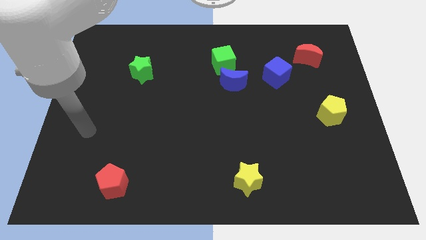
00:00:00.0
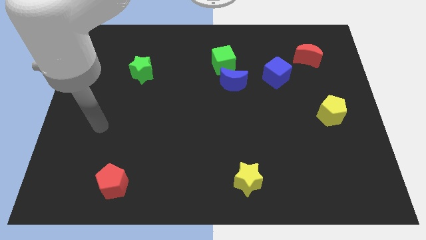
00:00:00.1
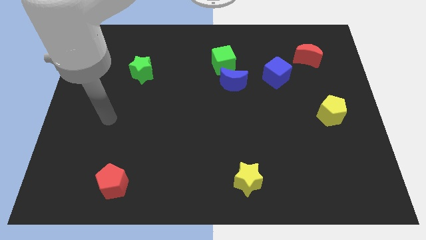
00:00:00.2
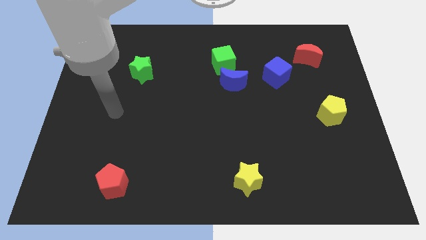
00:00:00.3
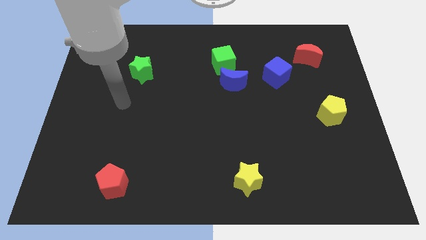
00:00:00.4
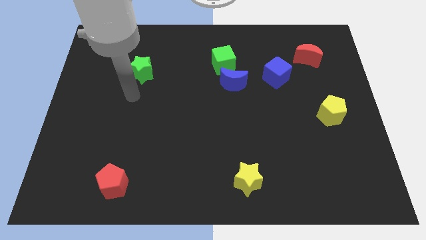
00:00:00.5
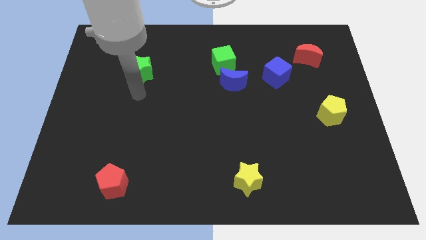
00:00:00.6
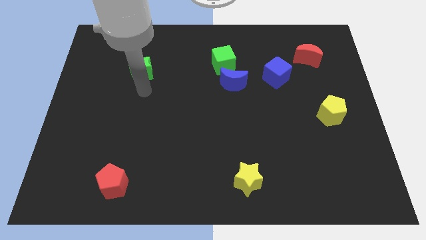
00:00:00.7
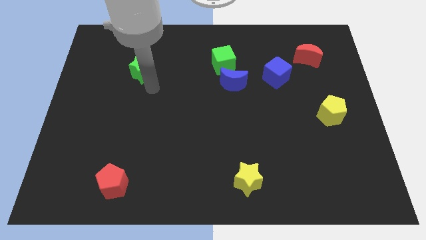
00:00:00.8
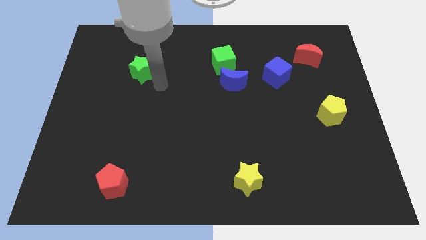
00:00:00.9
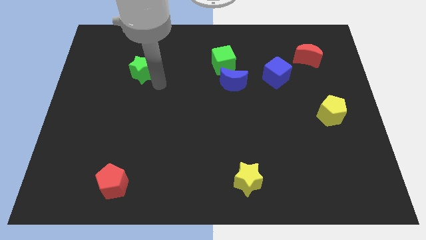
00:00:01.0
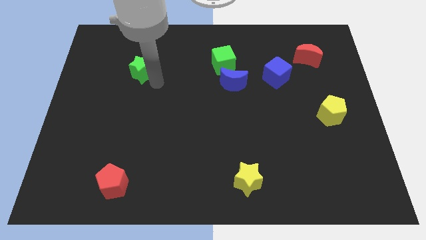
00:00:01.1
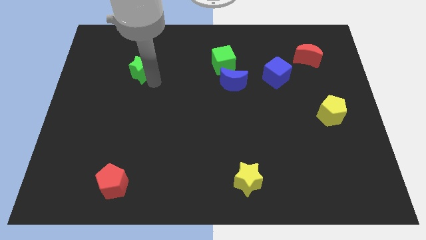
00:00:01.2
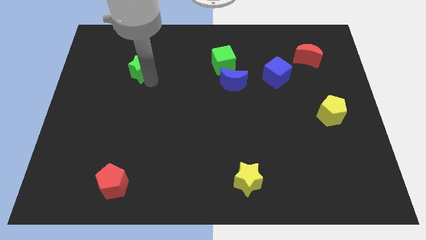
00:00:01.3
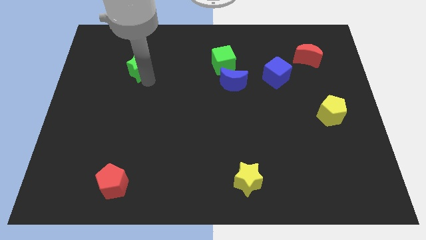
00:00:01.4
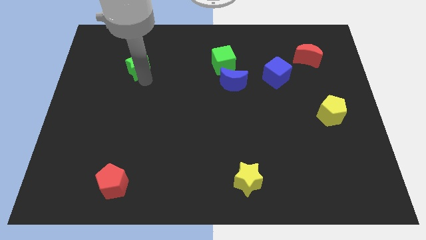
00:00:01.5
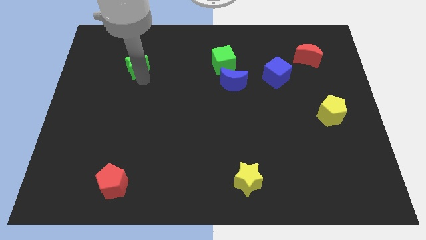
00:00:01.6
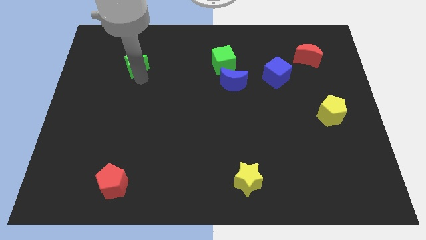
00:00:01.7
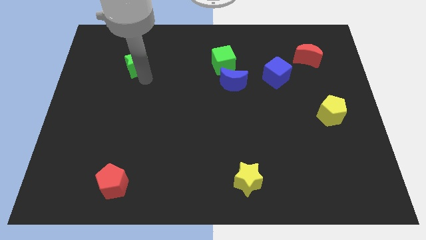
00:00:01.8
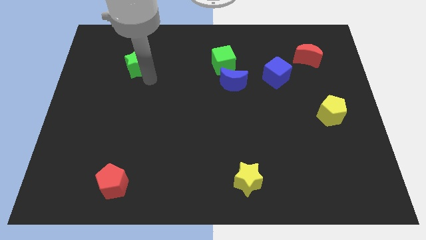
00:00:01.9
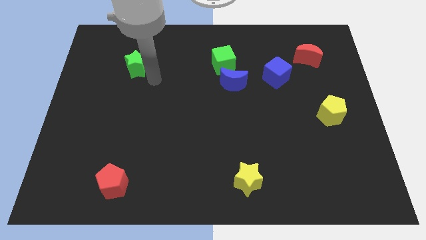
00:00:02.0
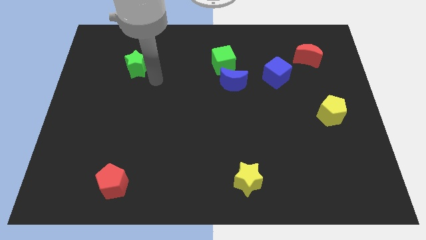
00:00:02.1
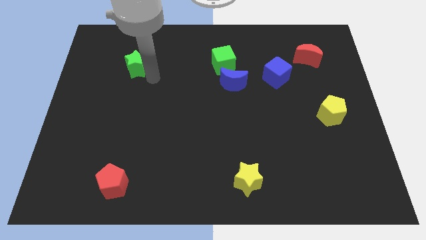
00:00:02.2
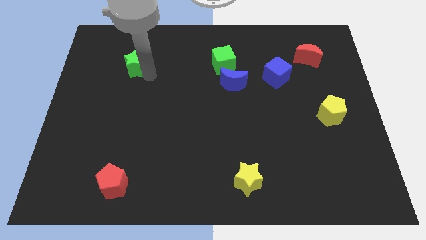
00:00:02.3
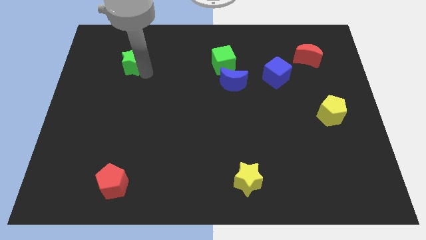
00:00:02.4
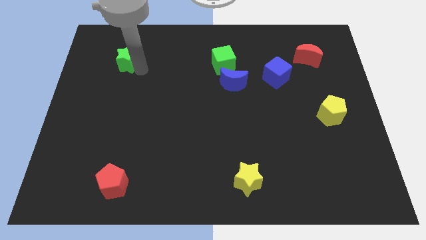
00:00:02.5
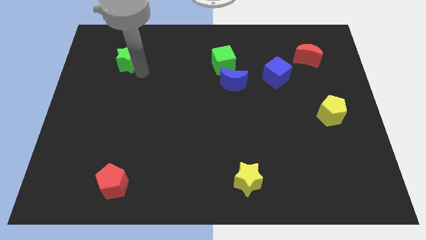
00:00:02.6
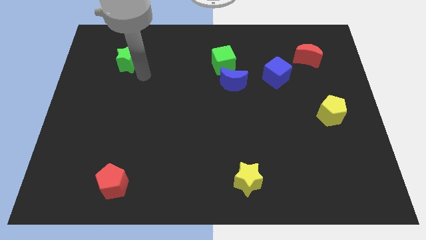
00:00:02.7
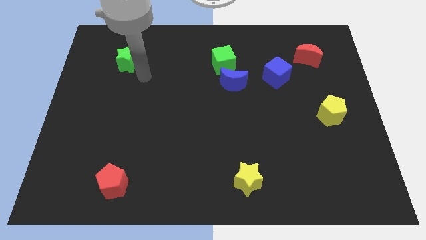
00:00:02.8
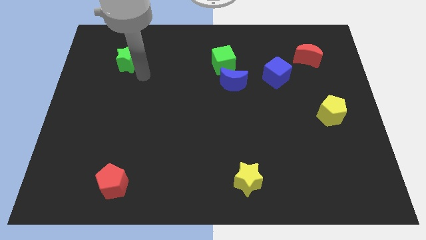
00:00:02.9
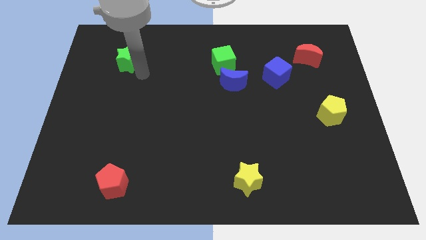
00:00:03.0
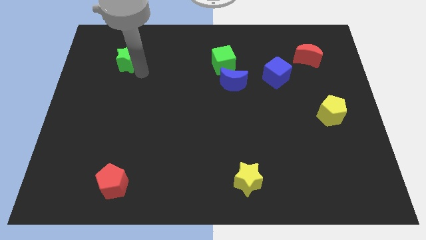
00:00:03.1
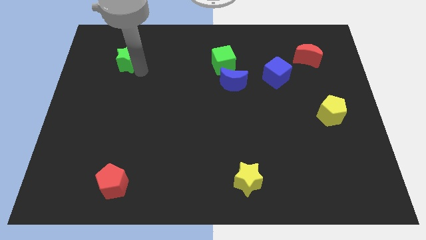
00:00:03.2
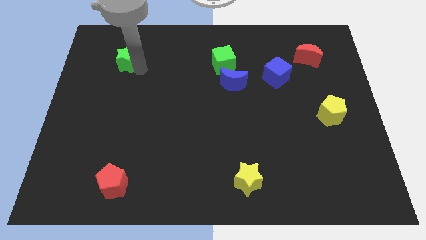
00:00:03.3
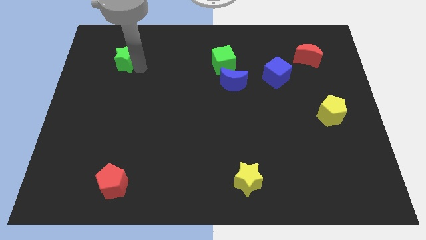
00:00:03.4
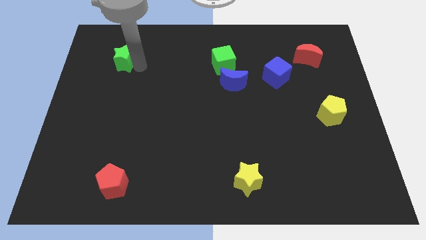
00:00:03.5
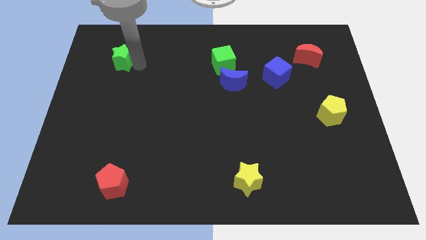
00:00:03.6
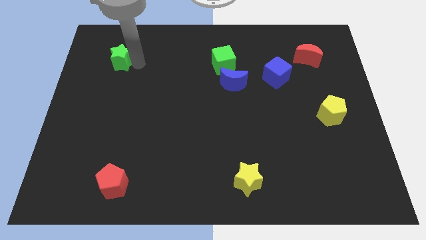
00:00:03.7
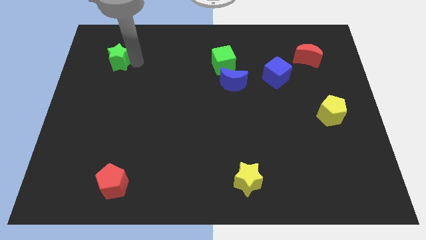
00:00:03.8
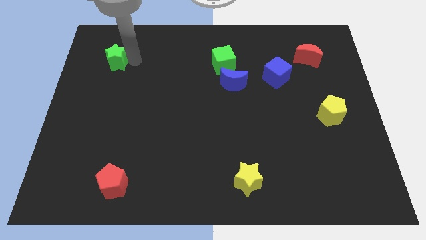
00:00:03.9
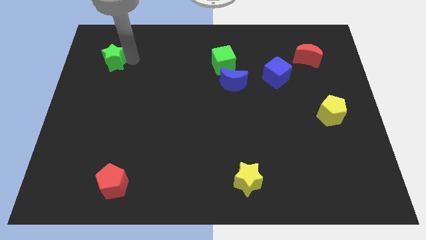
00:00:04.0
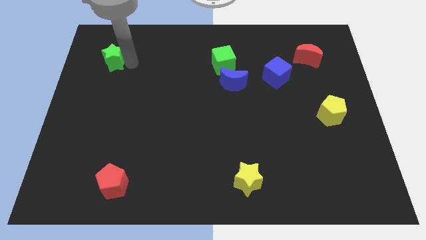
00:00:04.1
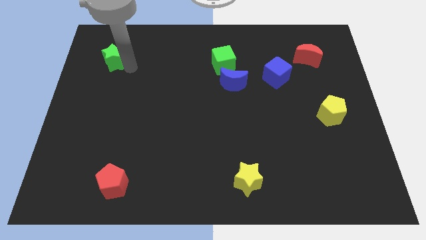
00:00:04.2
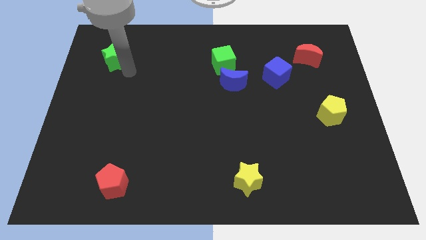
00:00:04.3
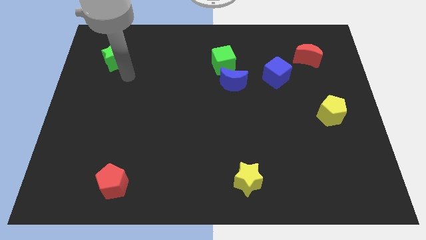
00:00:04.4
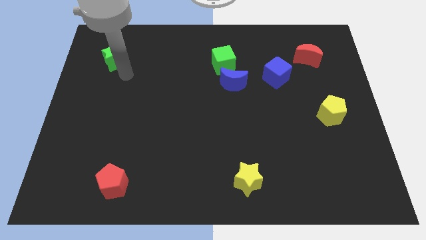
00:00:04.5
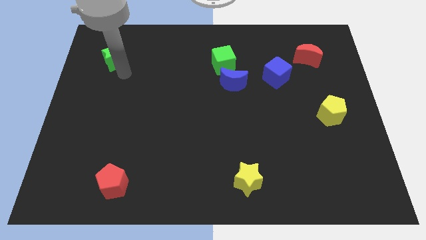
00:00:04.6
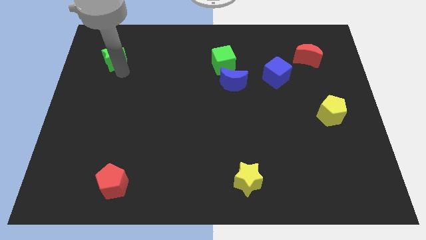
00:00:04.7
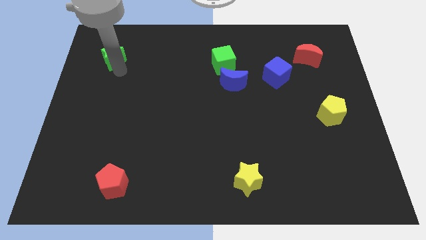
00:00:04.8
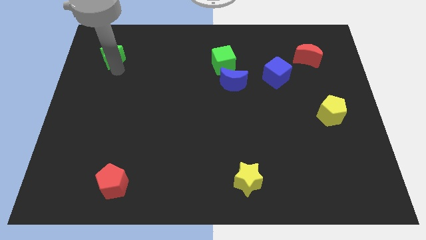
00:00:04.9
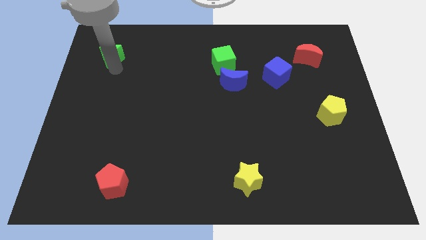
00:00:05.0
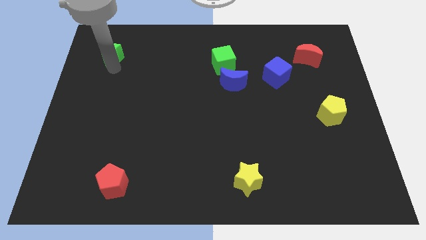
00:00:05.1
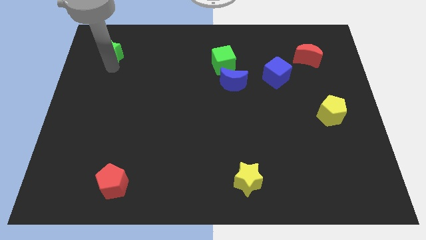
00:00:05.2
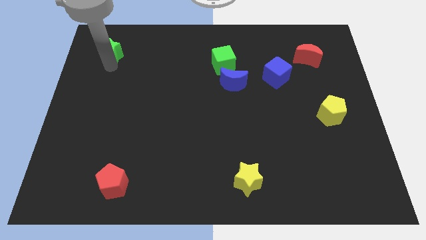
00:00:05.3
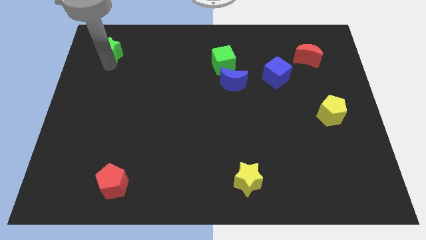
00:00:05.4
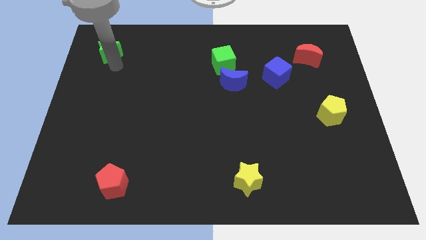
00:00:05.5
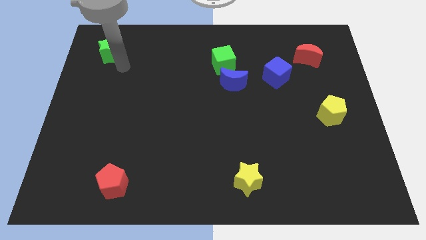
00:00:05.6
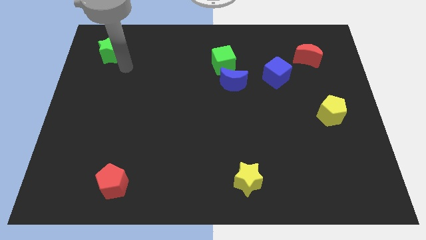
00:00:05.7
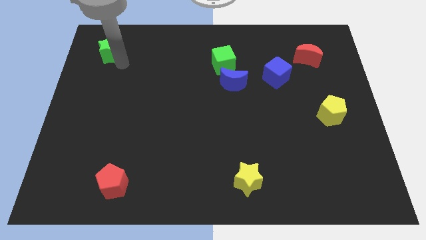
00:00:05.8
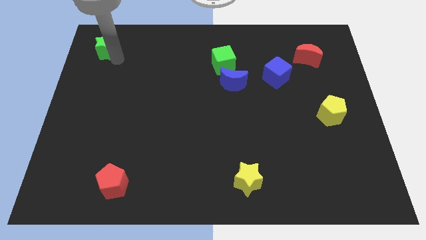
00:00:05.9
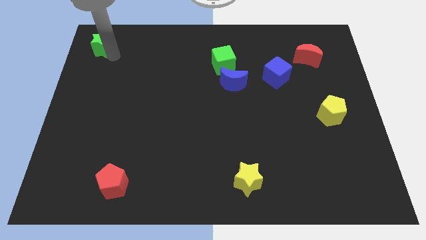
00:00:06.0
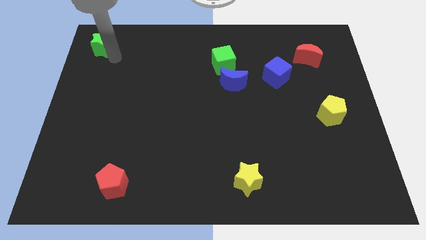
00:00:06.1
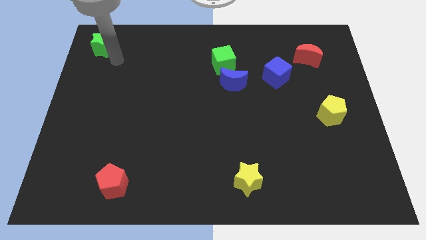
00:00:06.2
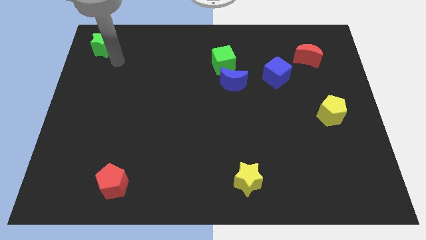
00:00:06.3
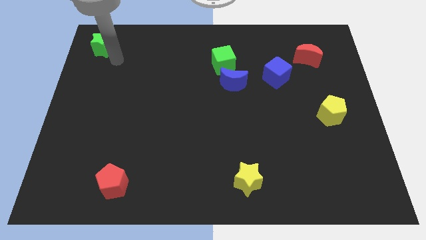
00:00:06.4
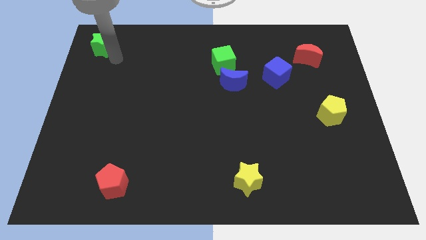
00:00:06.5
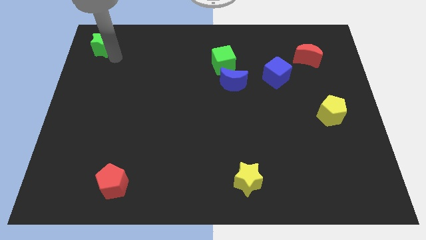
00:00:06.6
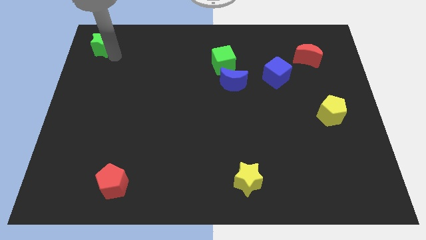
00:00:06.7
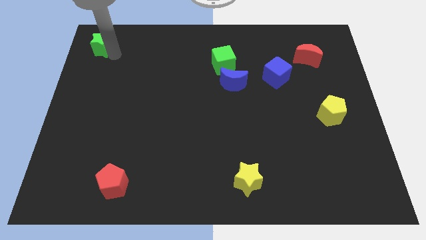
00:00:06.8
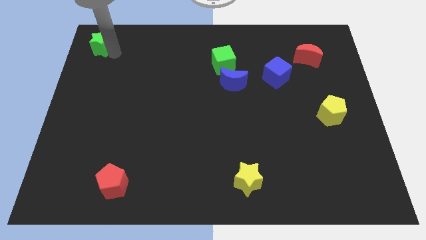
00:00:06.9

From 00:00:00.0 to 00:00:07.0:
put the green star to the upper left corner

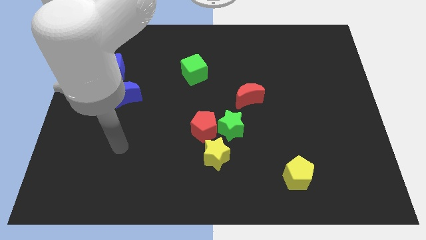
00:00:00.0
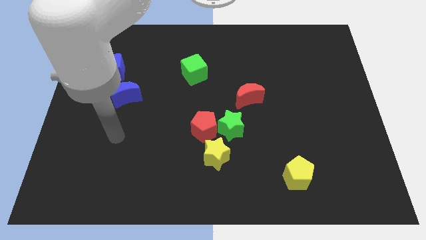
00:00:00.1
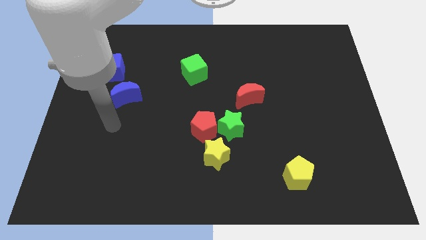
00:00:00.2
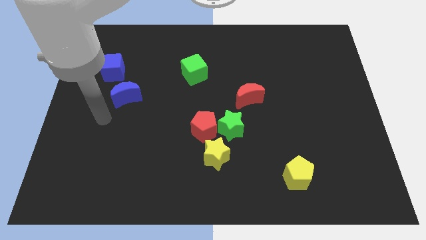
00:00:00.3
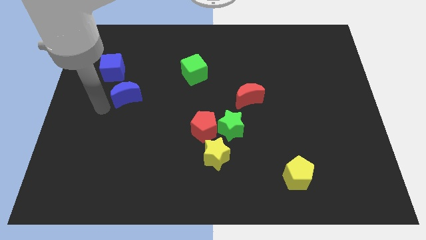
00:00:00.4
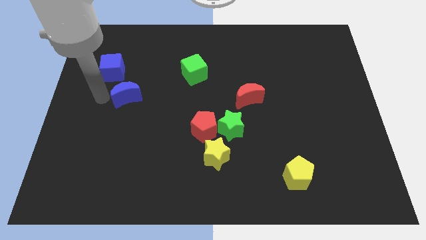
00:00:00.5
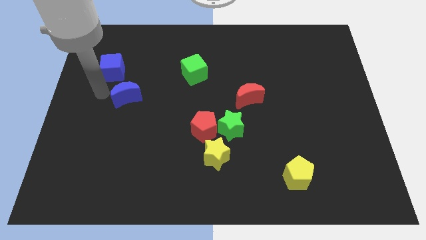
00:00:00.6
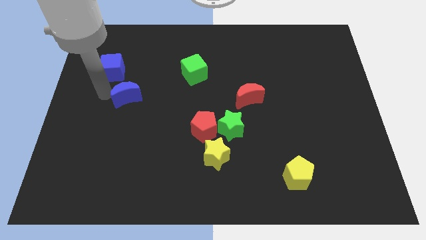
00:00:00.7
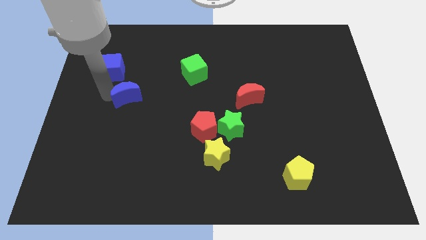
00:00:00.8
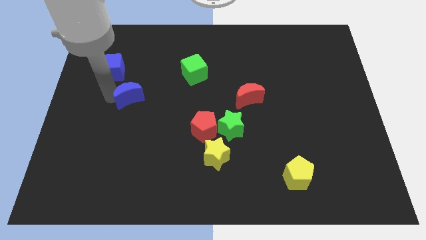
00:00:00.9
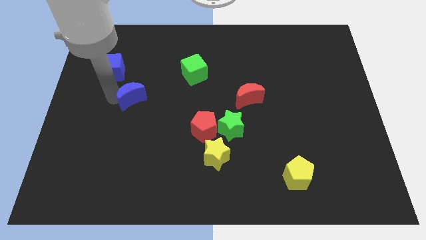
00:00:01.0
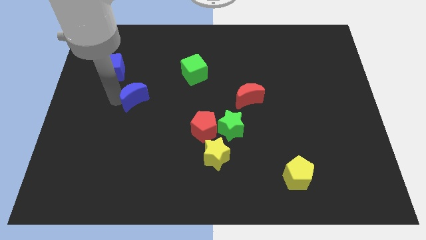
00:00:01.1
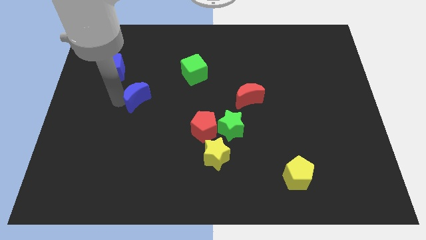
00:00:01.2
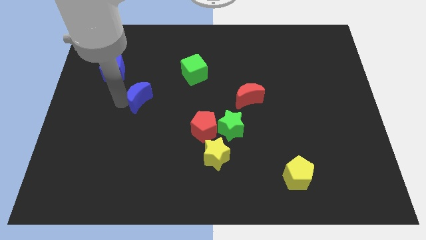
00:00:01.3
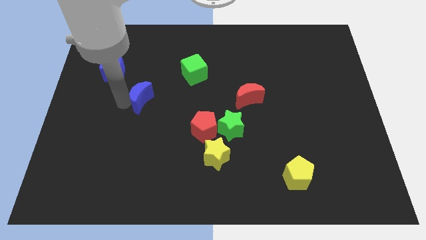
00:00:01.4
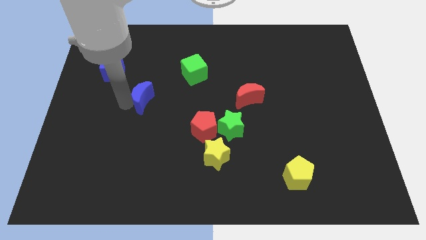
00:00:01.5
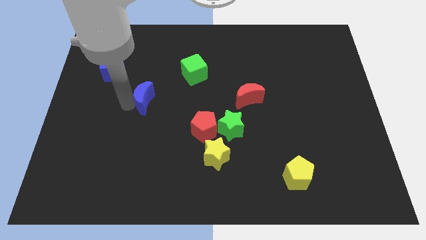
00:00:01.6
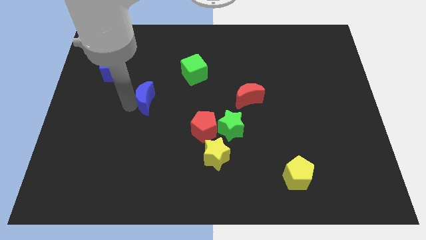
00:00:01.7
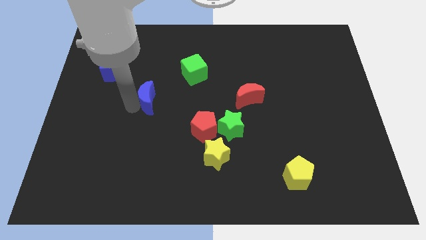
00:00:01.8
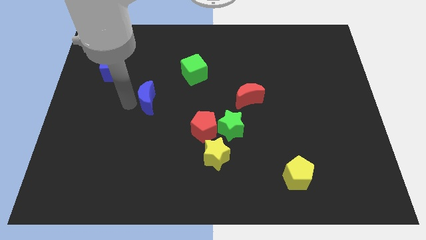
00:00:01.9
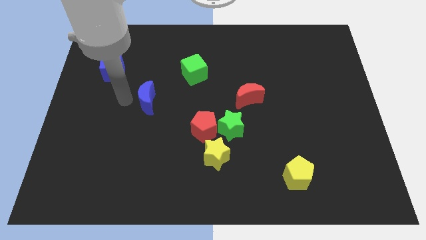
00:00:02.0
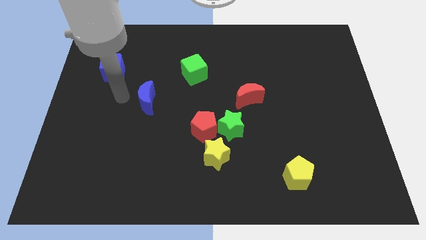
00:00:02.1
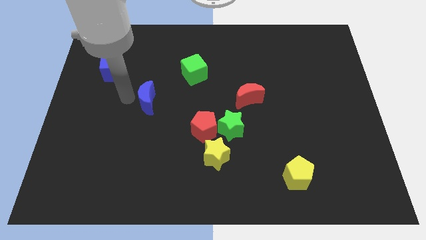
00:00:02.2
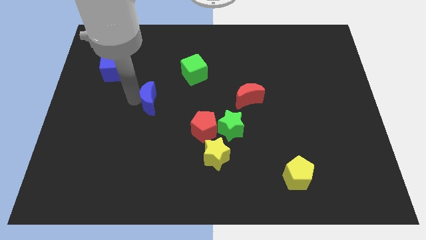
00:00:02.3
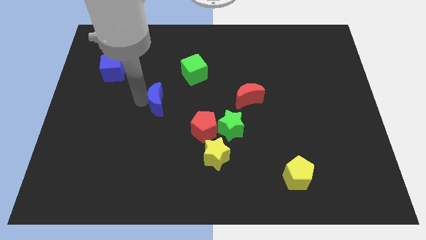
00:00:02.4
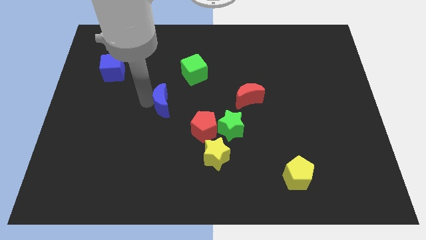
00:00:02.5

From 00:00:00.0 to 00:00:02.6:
move the blue moon to the middle
